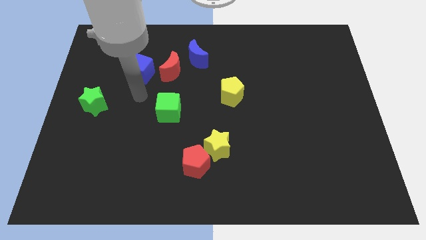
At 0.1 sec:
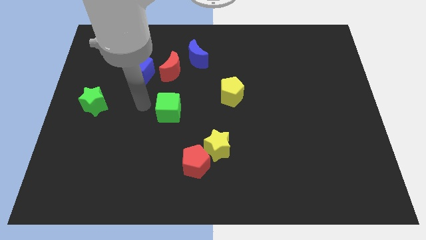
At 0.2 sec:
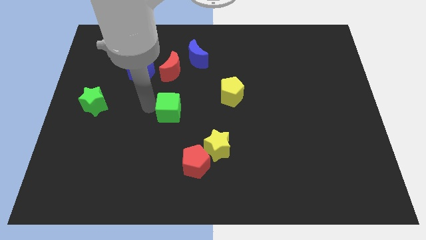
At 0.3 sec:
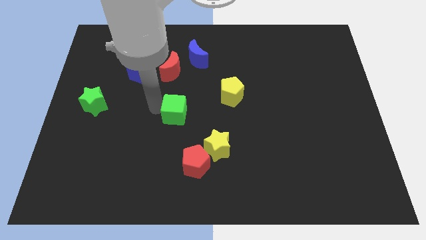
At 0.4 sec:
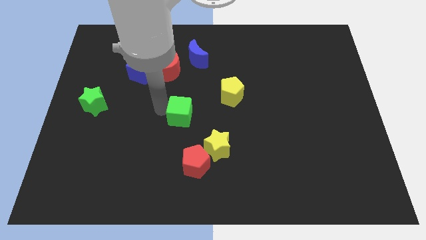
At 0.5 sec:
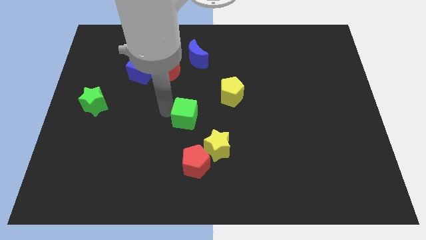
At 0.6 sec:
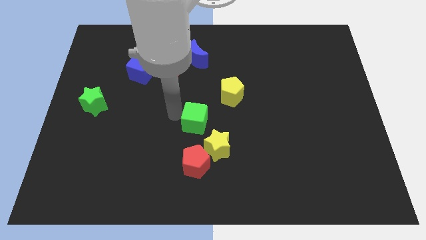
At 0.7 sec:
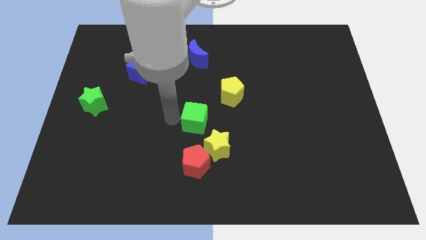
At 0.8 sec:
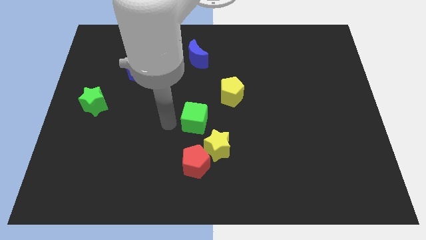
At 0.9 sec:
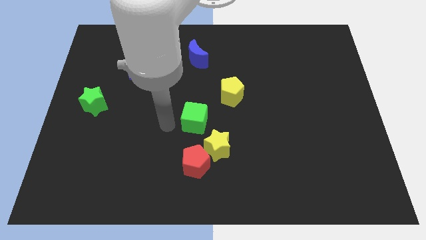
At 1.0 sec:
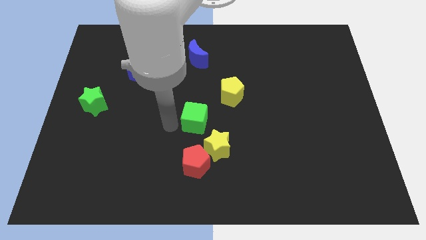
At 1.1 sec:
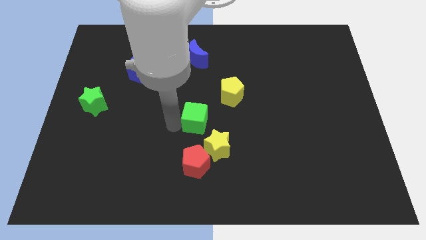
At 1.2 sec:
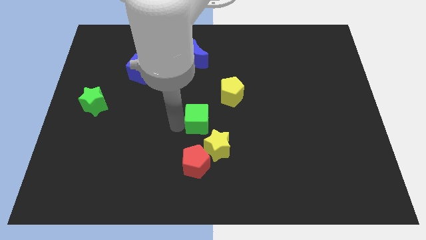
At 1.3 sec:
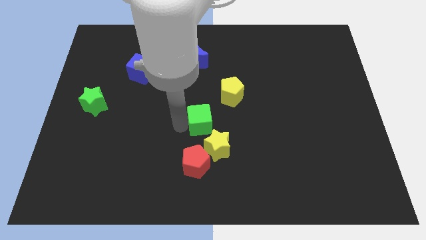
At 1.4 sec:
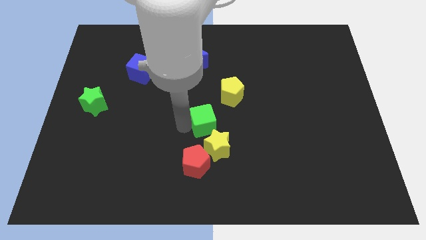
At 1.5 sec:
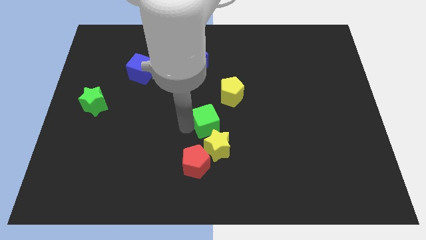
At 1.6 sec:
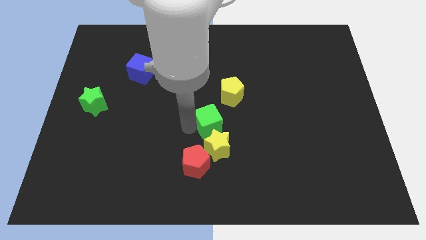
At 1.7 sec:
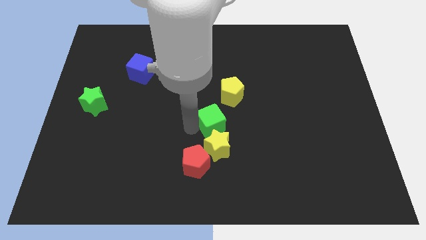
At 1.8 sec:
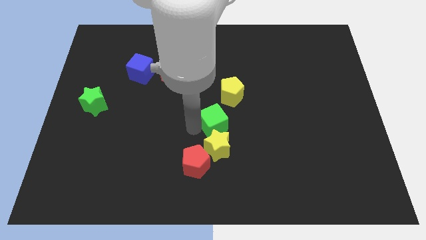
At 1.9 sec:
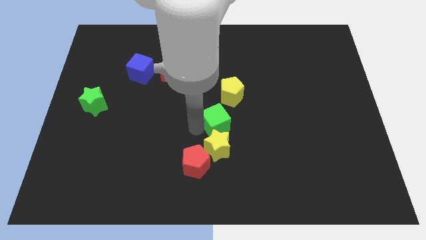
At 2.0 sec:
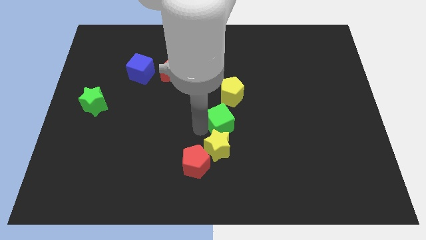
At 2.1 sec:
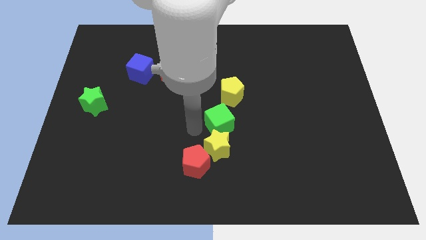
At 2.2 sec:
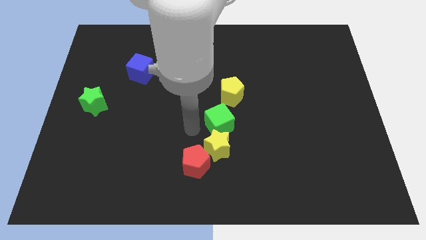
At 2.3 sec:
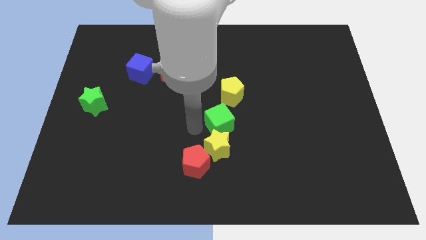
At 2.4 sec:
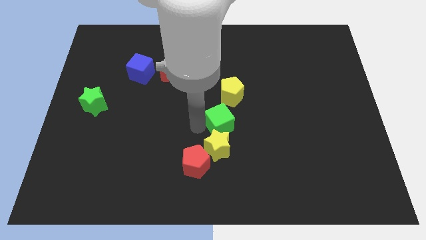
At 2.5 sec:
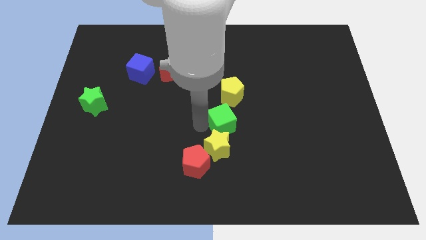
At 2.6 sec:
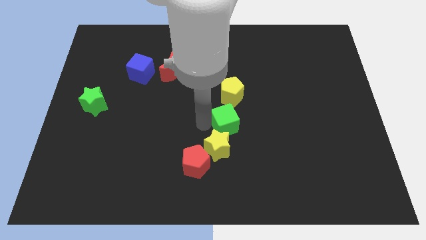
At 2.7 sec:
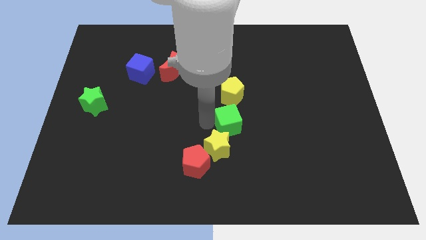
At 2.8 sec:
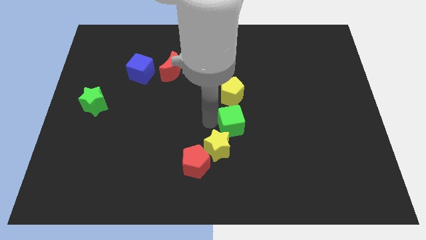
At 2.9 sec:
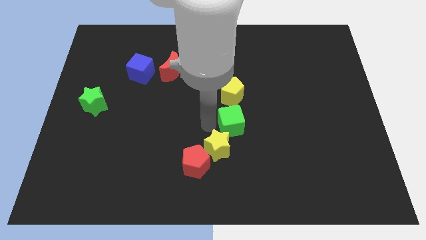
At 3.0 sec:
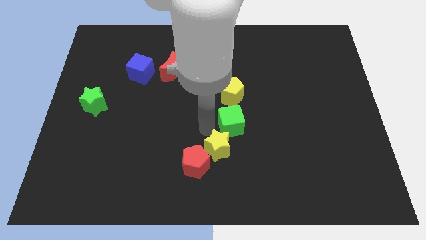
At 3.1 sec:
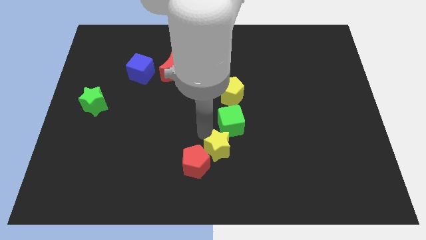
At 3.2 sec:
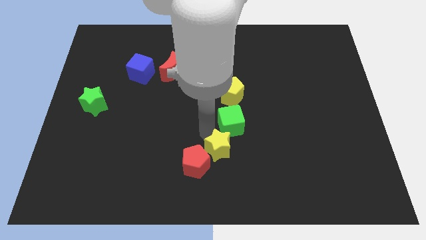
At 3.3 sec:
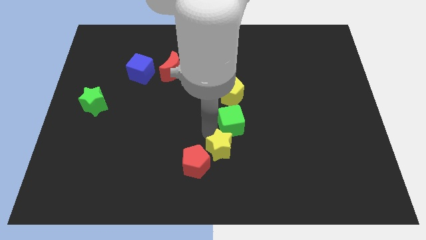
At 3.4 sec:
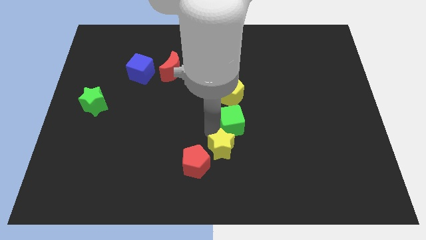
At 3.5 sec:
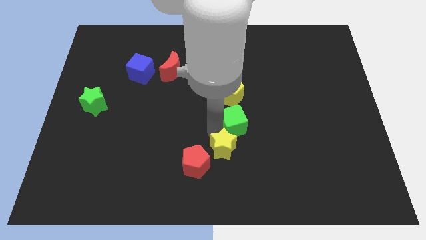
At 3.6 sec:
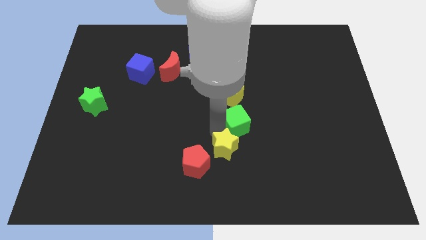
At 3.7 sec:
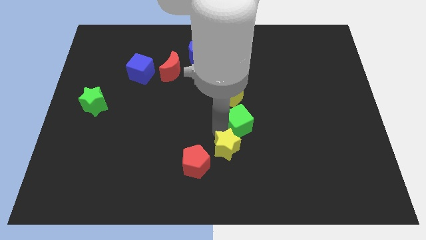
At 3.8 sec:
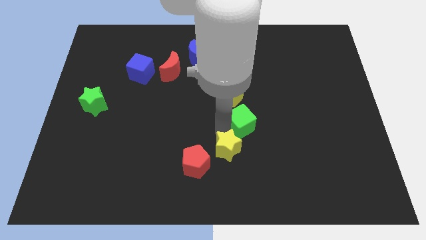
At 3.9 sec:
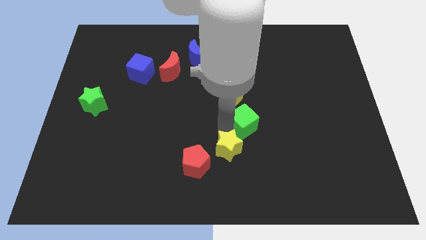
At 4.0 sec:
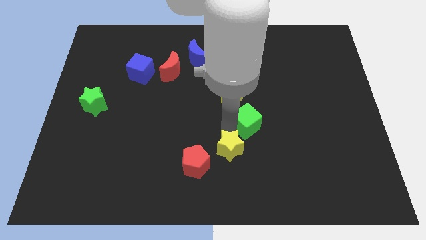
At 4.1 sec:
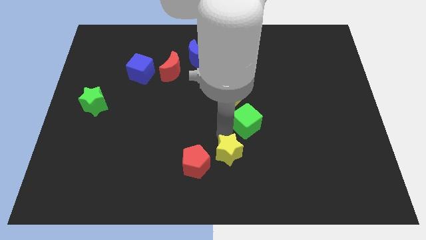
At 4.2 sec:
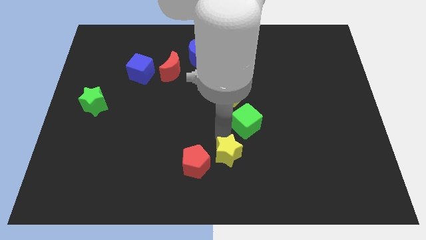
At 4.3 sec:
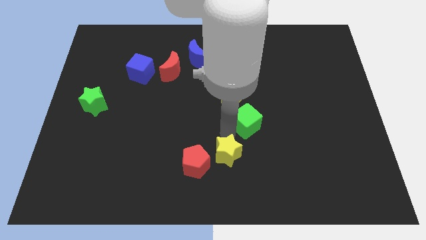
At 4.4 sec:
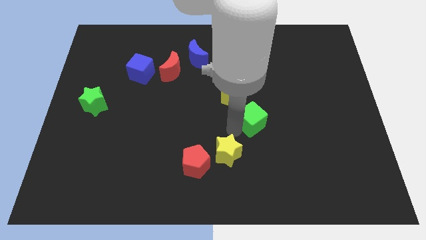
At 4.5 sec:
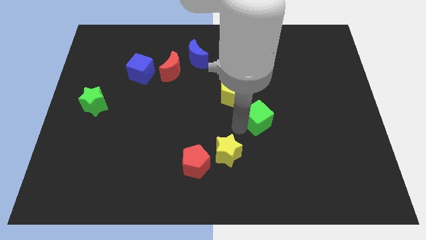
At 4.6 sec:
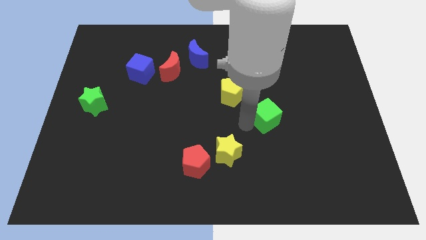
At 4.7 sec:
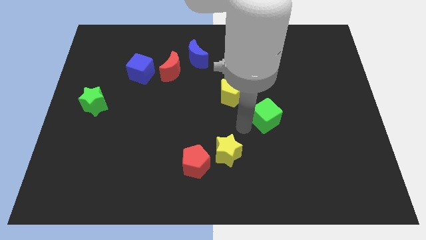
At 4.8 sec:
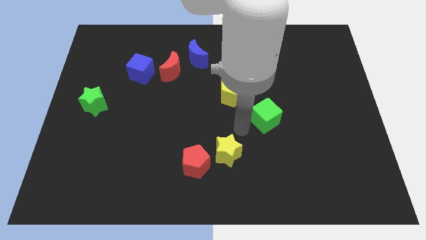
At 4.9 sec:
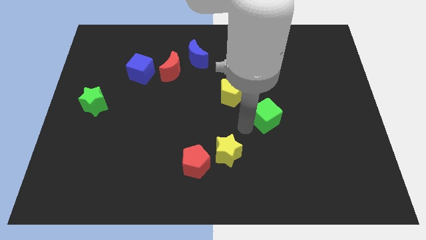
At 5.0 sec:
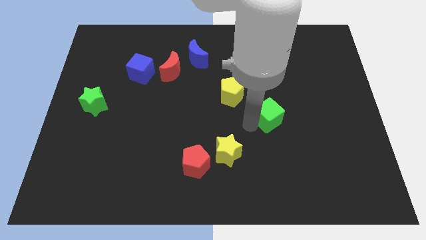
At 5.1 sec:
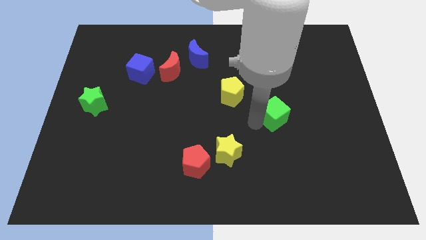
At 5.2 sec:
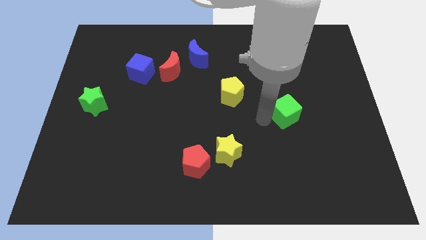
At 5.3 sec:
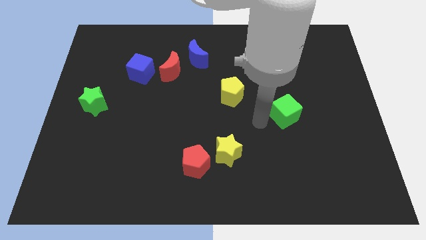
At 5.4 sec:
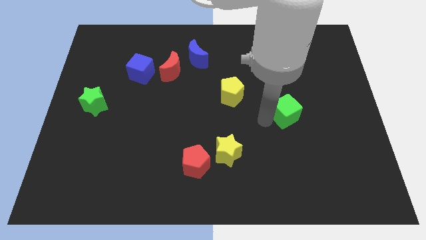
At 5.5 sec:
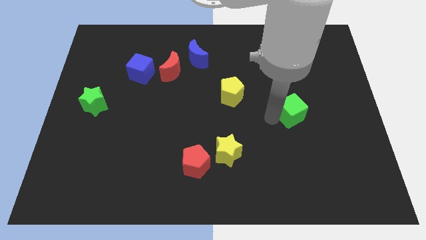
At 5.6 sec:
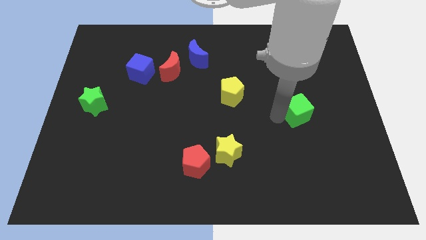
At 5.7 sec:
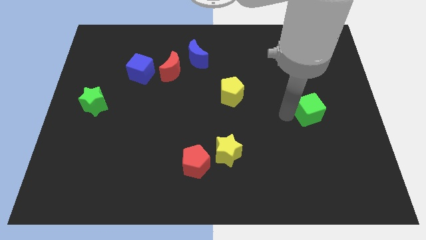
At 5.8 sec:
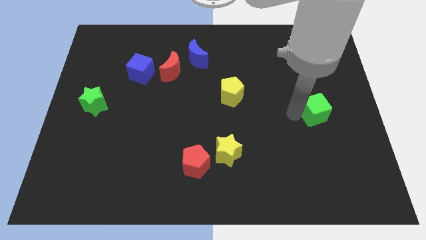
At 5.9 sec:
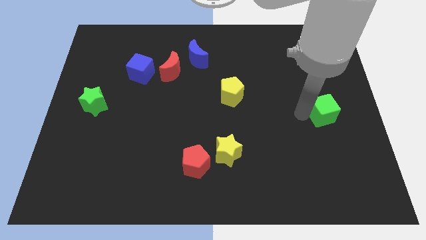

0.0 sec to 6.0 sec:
slide the green cube to the center right
